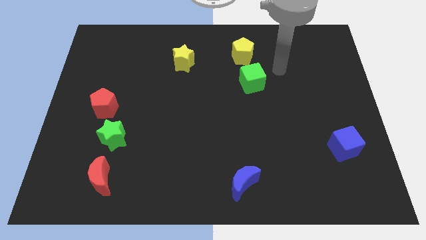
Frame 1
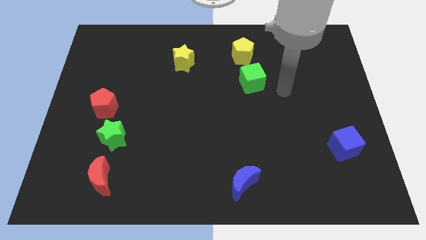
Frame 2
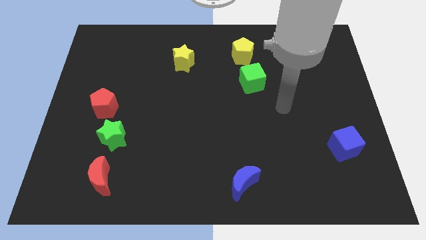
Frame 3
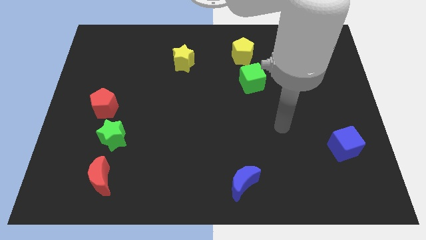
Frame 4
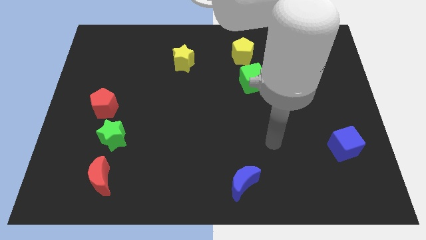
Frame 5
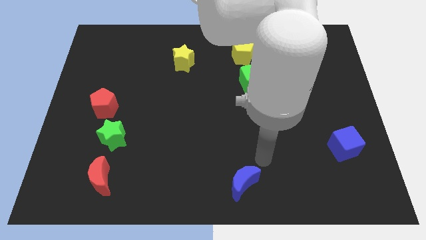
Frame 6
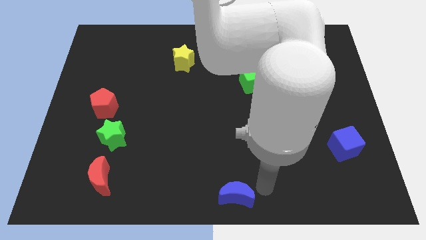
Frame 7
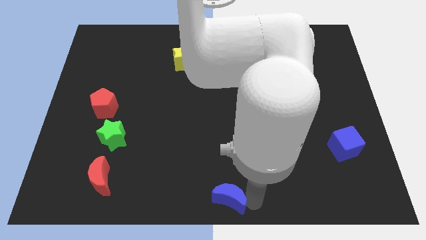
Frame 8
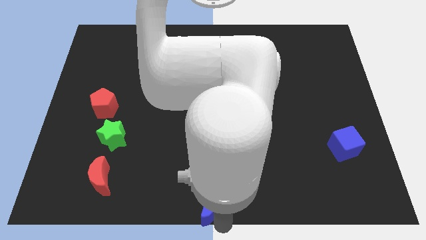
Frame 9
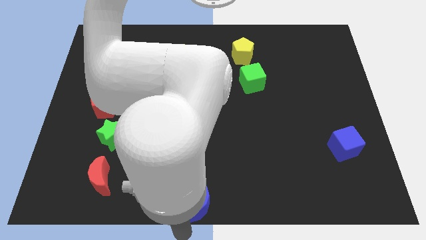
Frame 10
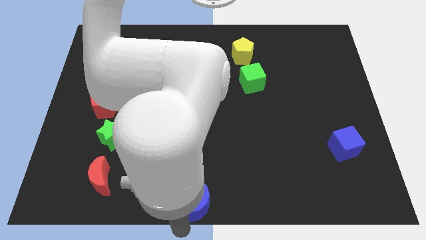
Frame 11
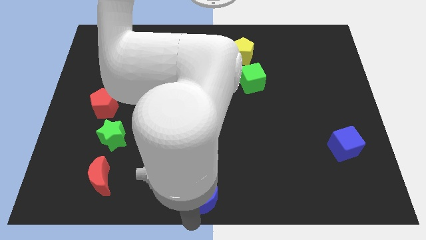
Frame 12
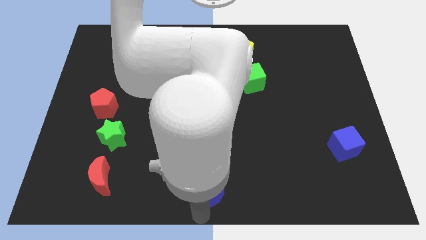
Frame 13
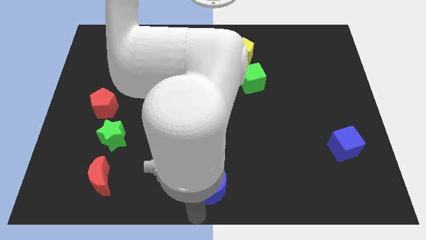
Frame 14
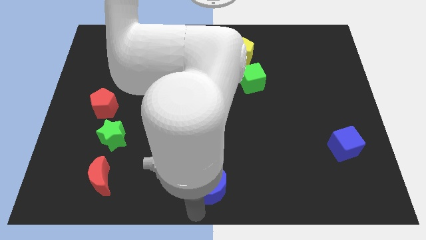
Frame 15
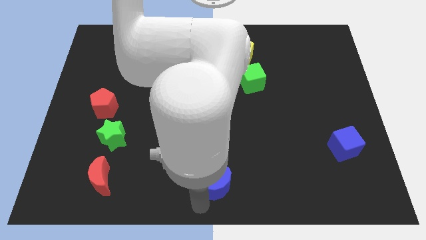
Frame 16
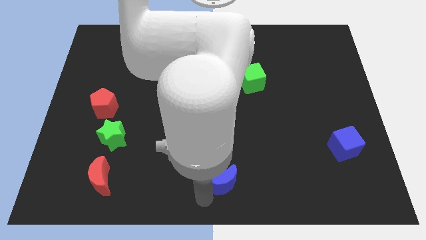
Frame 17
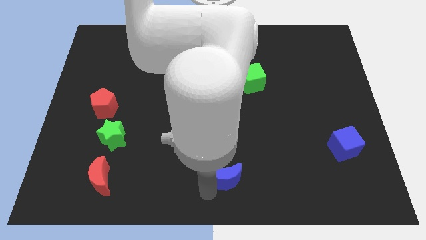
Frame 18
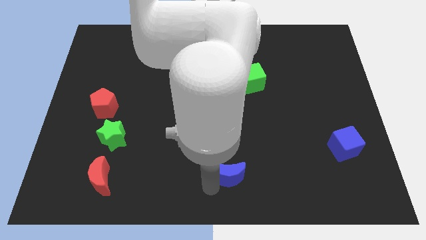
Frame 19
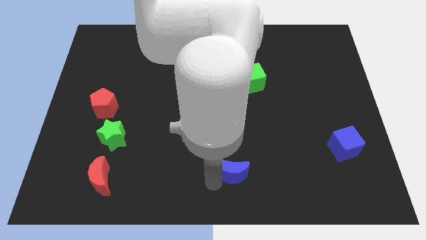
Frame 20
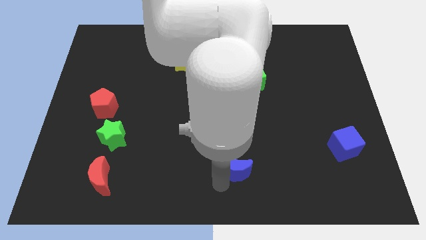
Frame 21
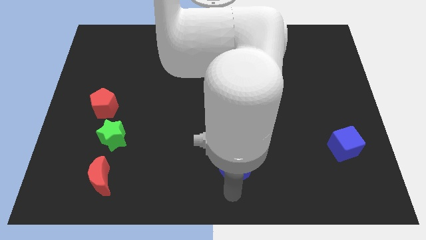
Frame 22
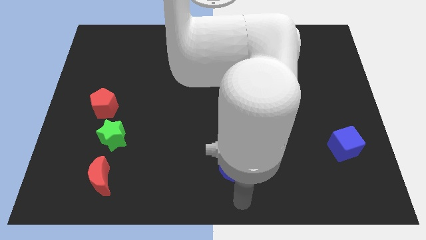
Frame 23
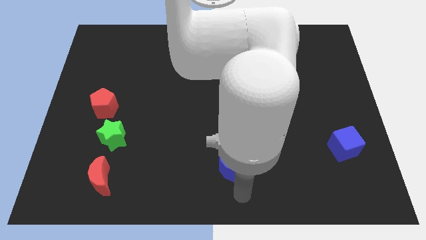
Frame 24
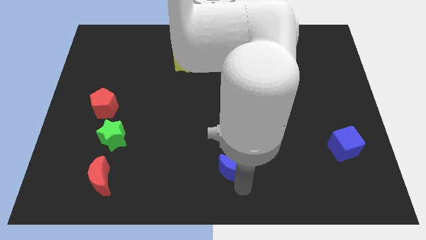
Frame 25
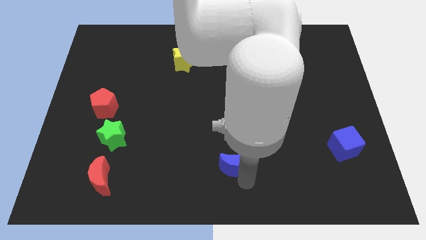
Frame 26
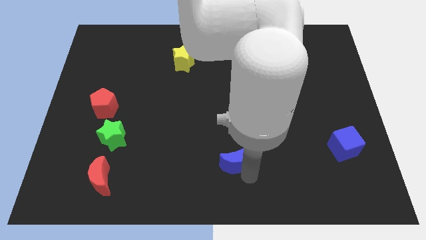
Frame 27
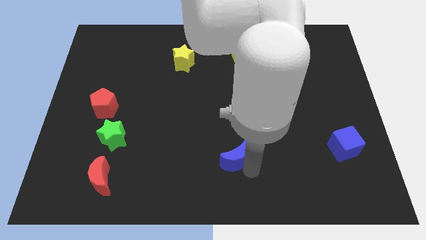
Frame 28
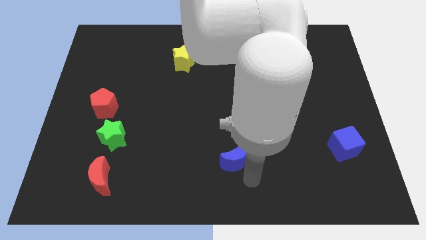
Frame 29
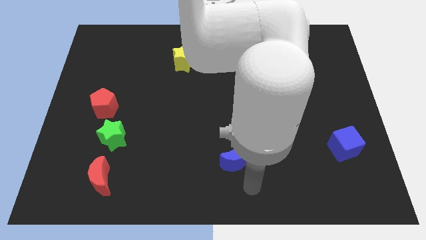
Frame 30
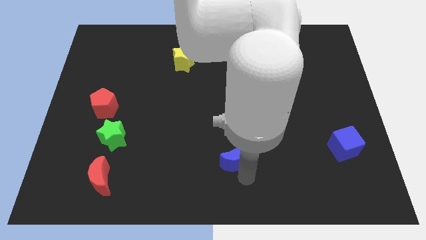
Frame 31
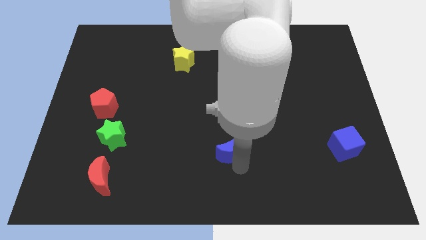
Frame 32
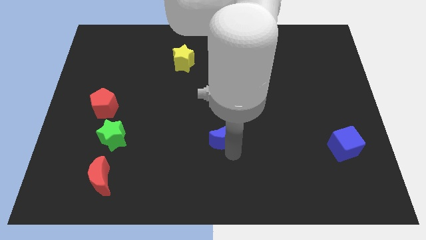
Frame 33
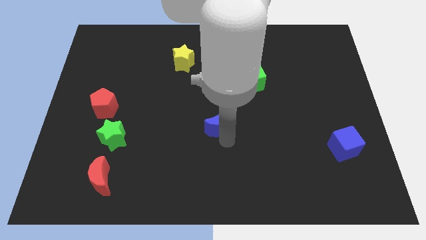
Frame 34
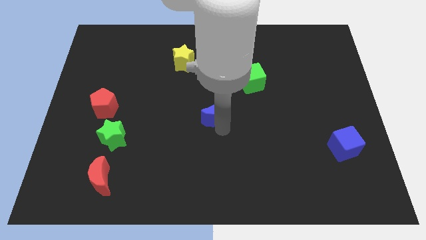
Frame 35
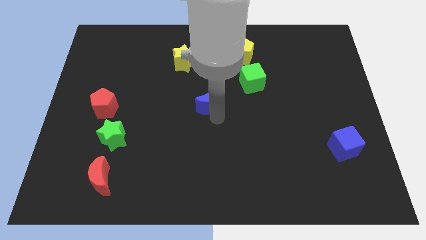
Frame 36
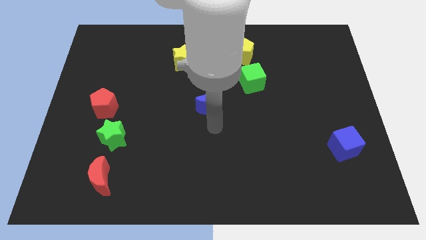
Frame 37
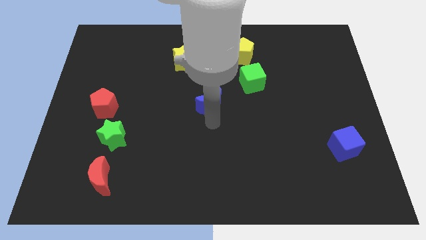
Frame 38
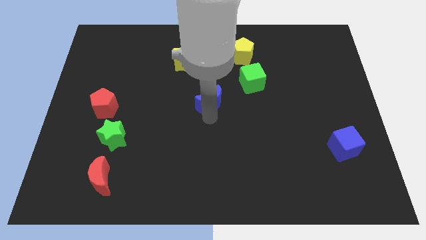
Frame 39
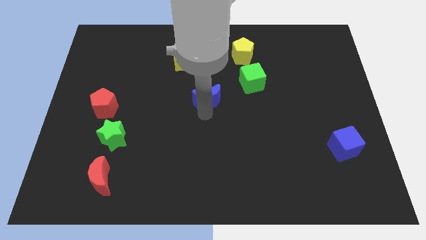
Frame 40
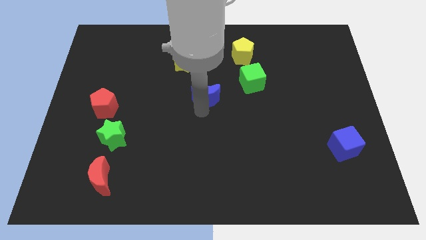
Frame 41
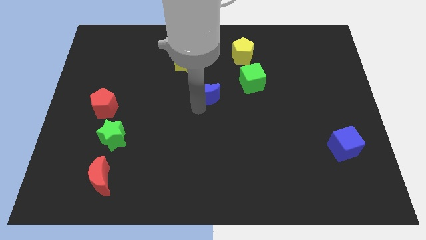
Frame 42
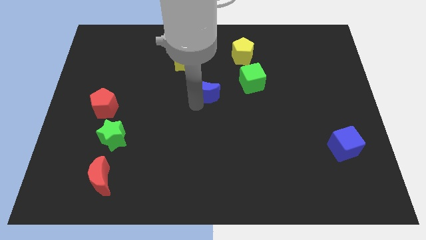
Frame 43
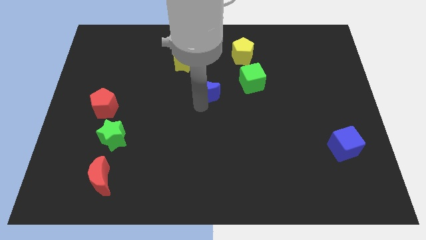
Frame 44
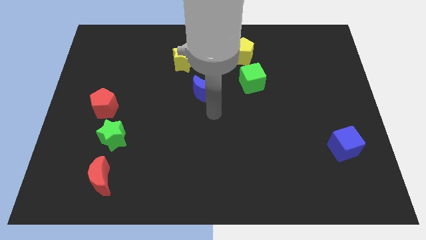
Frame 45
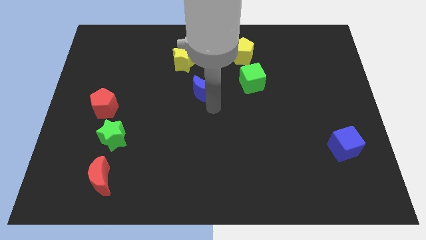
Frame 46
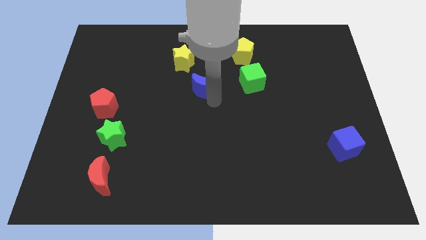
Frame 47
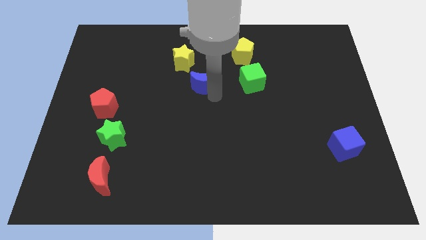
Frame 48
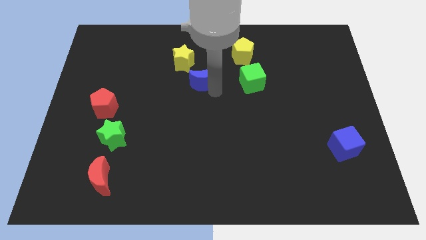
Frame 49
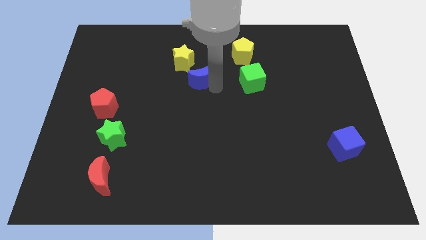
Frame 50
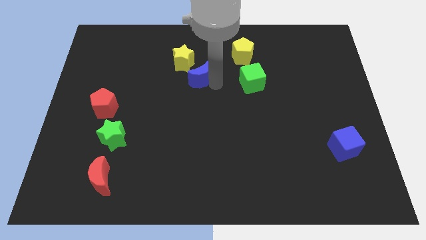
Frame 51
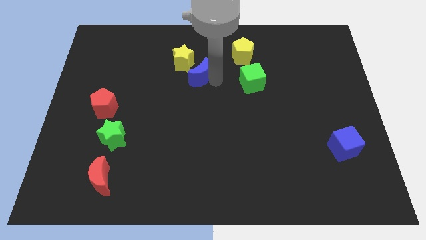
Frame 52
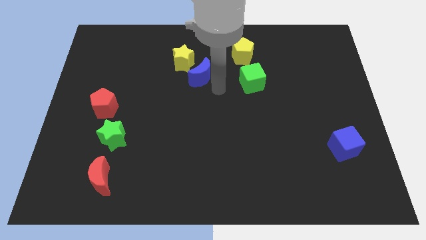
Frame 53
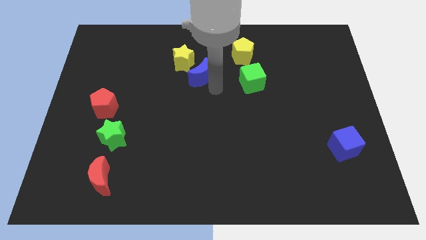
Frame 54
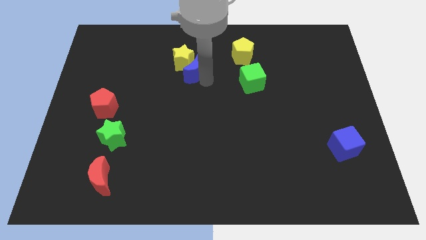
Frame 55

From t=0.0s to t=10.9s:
move the blue moon close to the yellow star

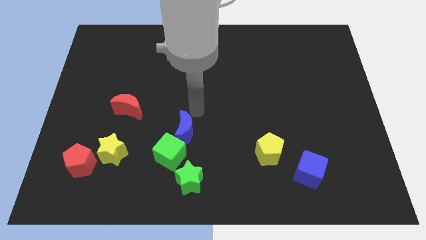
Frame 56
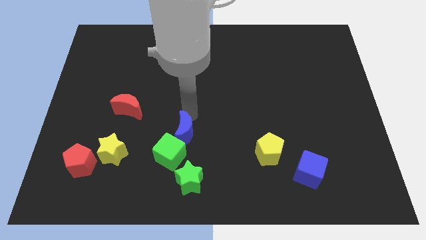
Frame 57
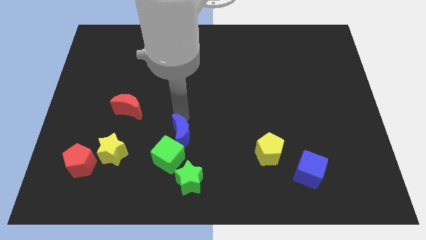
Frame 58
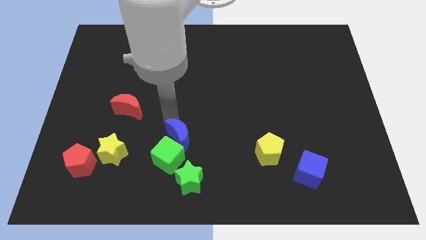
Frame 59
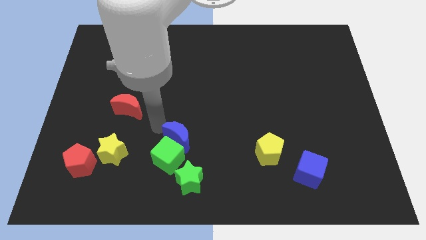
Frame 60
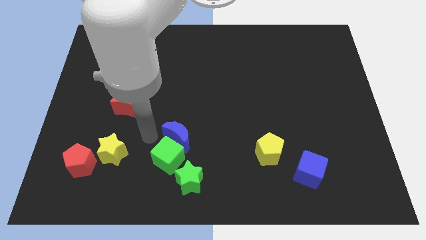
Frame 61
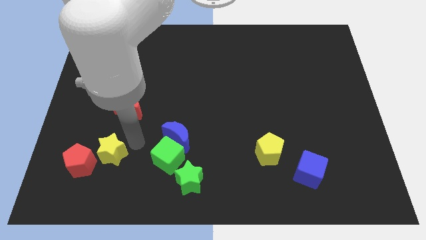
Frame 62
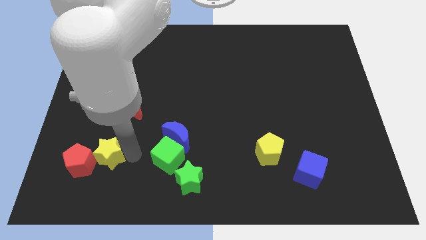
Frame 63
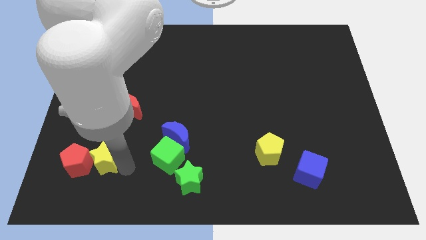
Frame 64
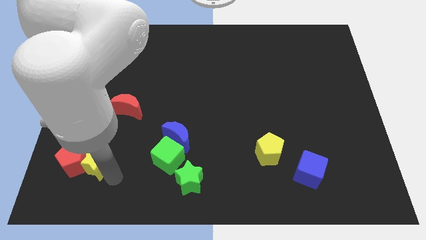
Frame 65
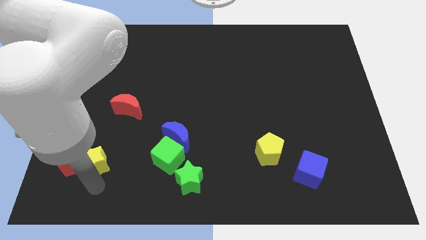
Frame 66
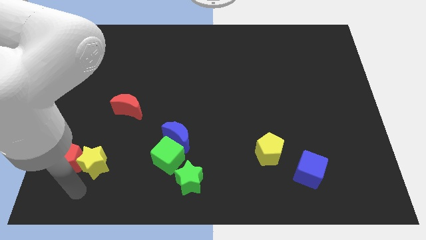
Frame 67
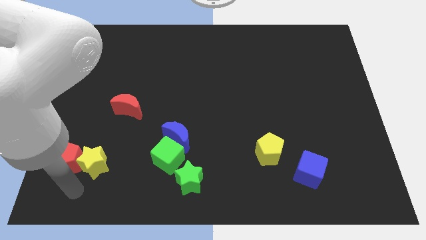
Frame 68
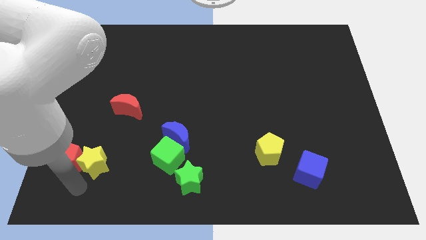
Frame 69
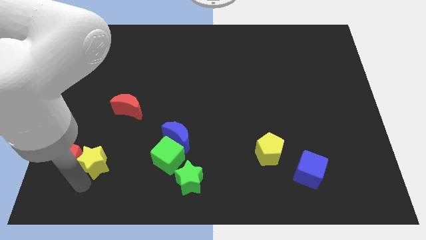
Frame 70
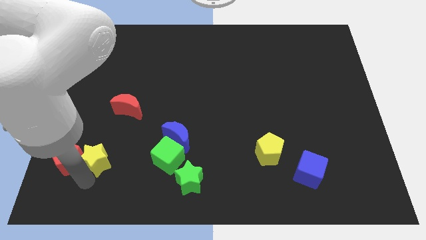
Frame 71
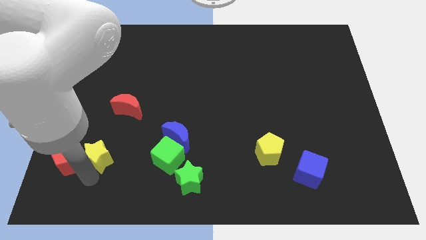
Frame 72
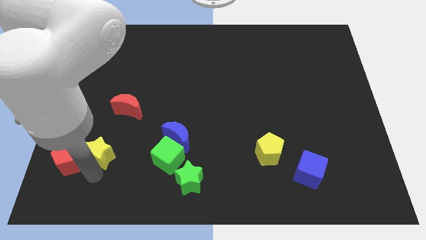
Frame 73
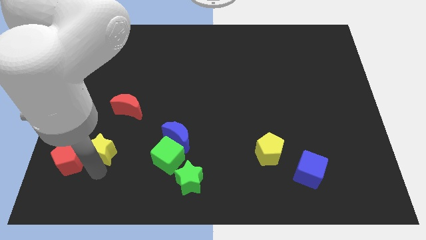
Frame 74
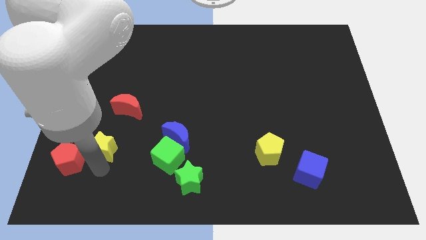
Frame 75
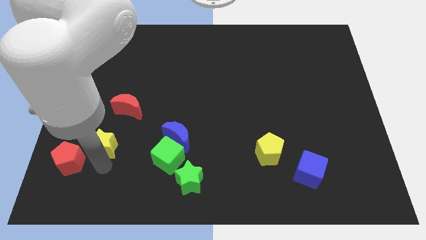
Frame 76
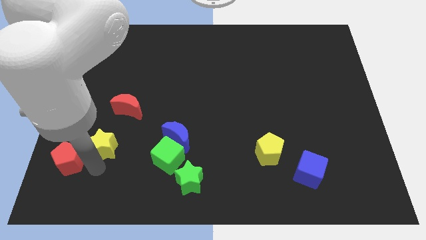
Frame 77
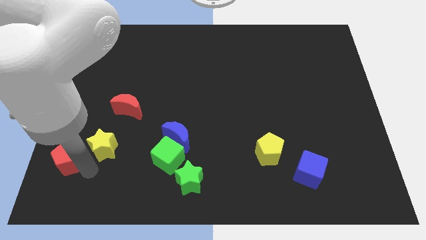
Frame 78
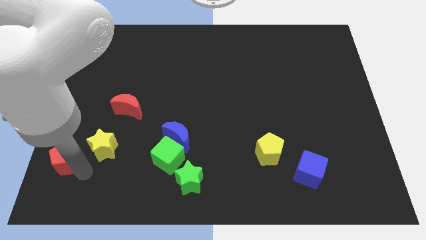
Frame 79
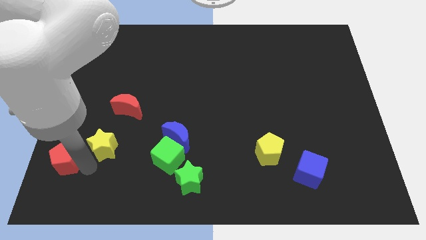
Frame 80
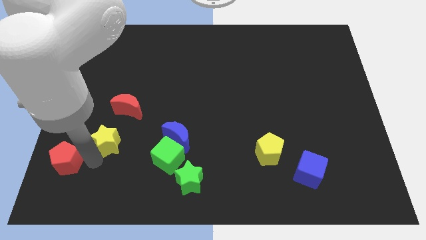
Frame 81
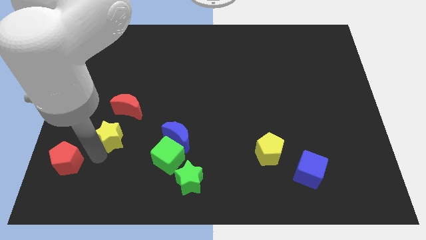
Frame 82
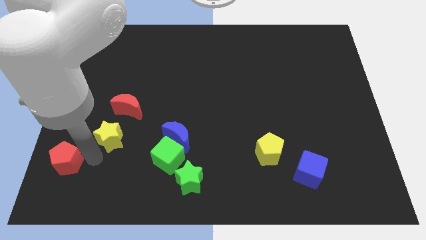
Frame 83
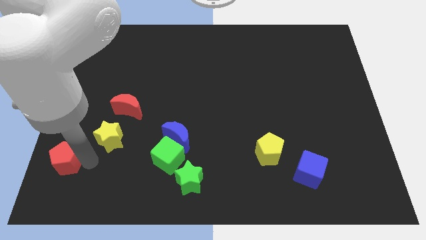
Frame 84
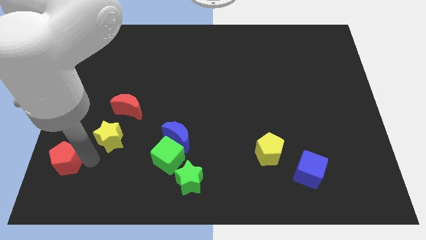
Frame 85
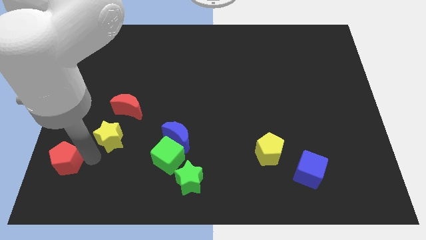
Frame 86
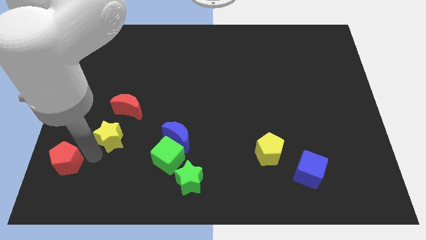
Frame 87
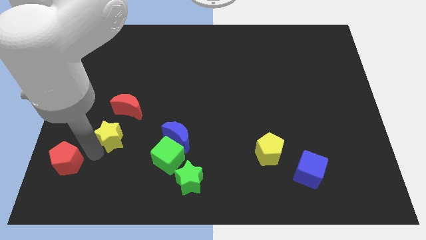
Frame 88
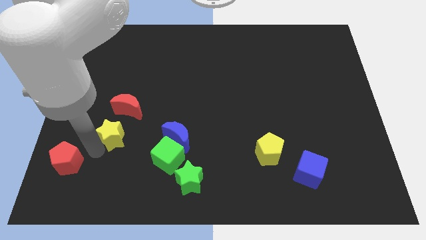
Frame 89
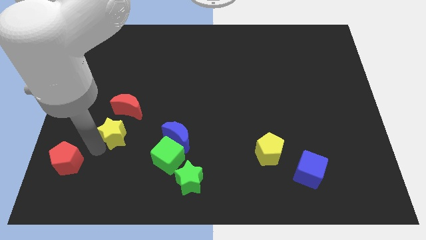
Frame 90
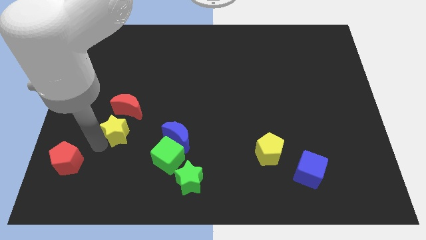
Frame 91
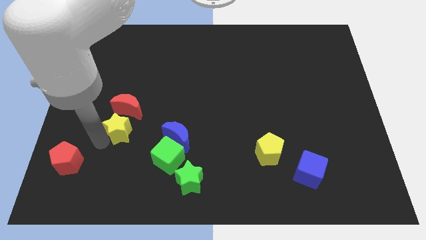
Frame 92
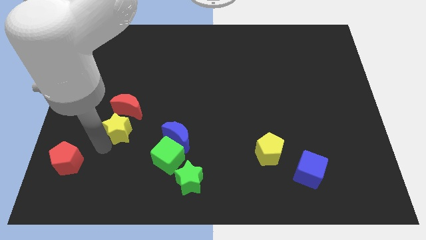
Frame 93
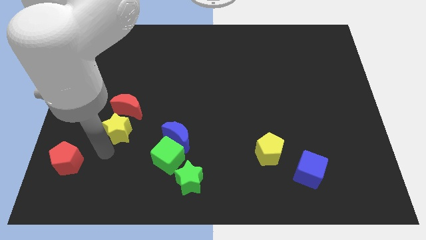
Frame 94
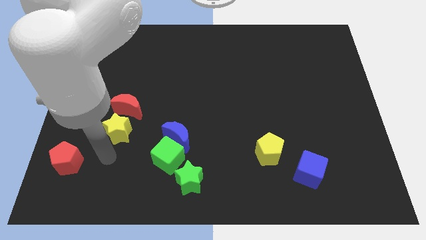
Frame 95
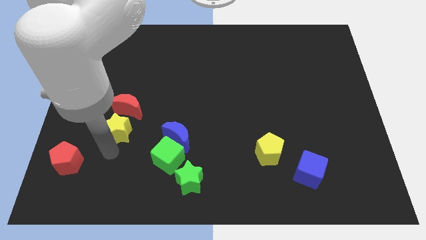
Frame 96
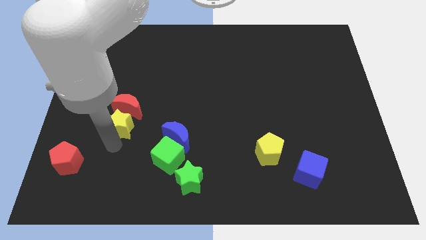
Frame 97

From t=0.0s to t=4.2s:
move the yellow star next to the red moon
